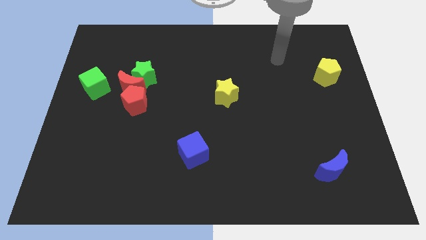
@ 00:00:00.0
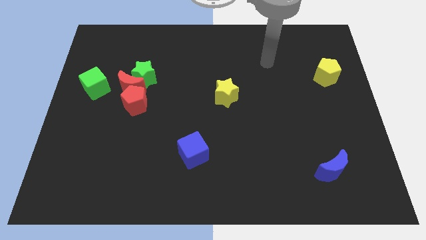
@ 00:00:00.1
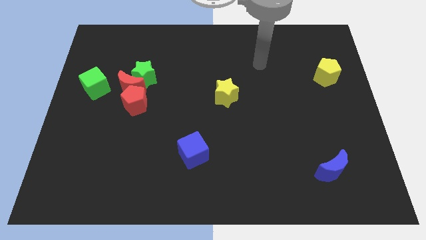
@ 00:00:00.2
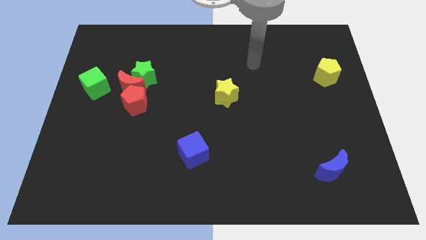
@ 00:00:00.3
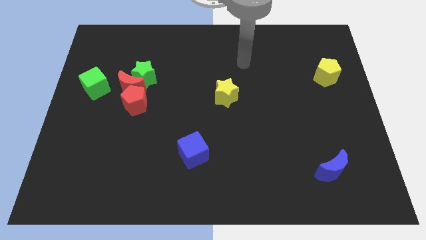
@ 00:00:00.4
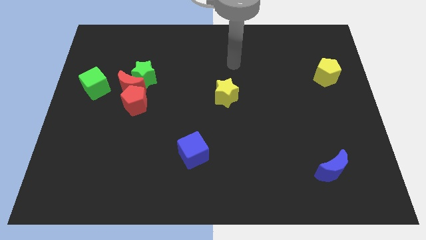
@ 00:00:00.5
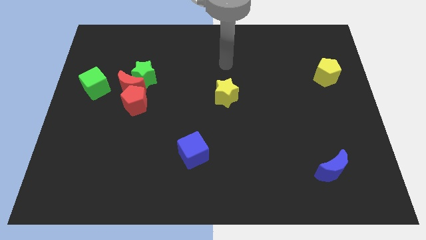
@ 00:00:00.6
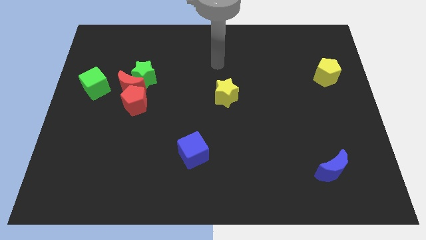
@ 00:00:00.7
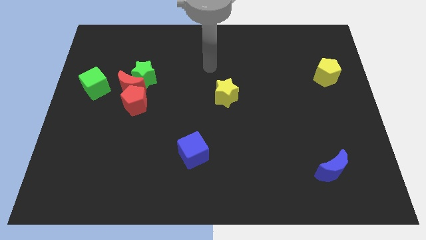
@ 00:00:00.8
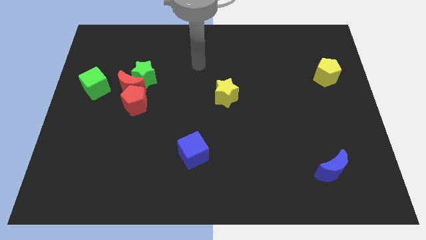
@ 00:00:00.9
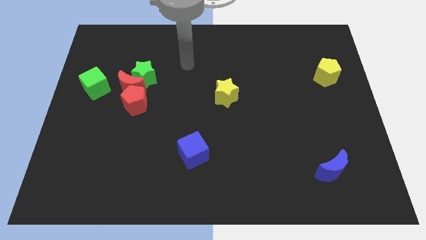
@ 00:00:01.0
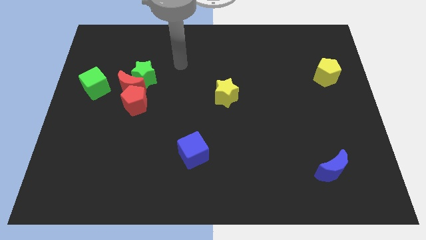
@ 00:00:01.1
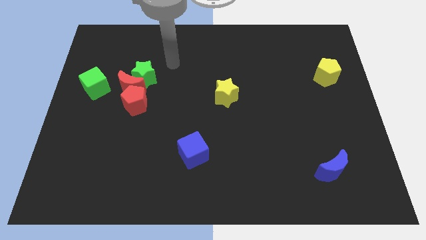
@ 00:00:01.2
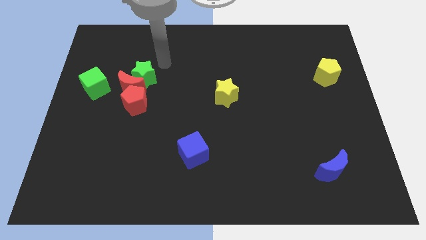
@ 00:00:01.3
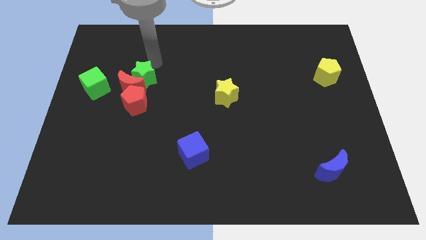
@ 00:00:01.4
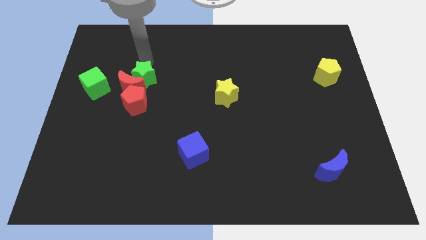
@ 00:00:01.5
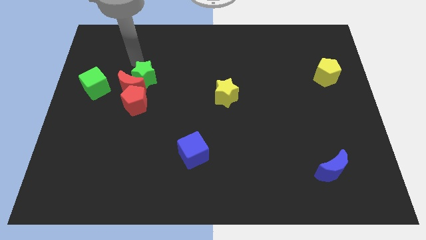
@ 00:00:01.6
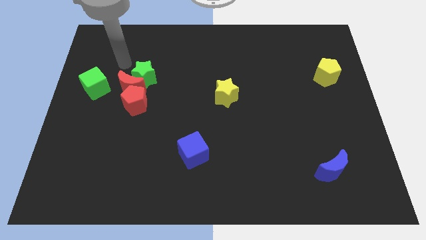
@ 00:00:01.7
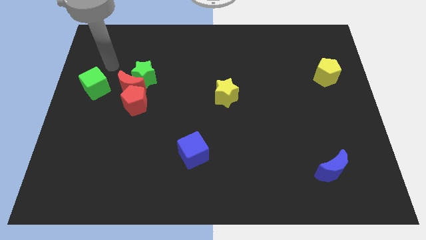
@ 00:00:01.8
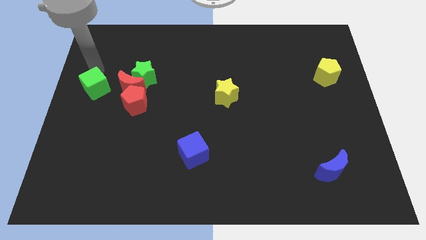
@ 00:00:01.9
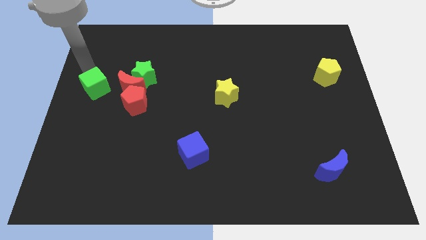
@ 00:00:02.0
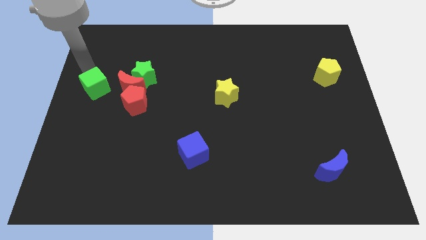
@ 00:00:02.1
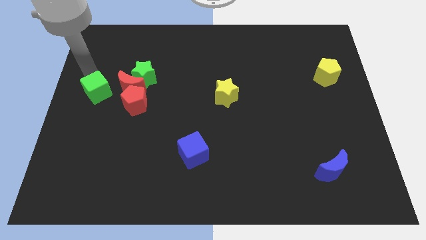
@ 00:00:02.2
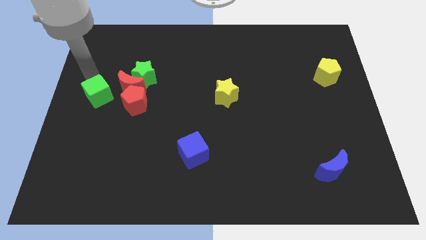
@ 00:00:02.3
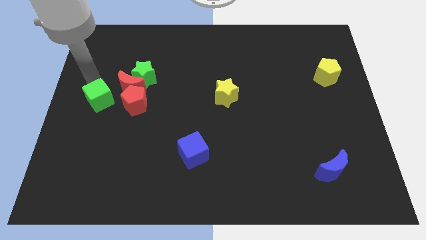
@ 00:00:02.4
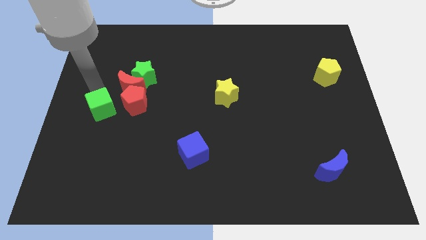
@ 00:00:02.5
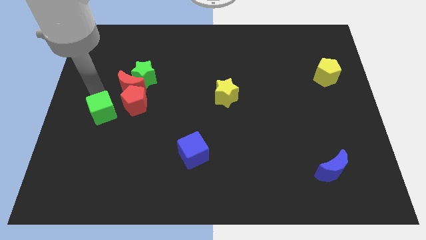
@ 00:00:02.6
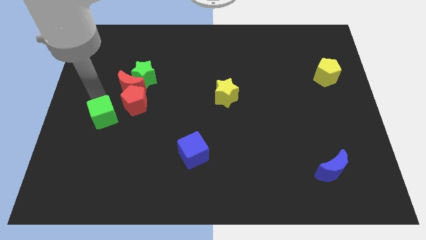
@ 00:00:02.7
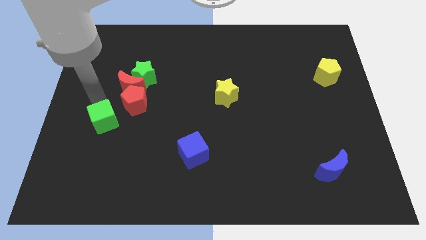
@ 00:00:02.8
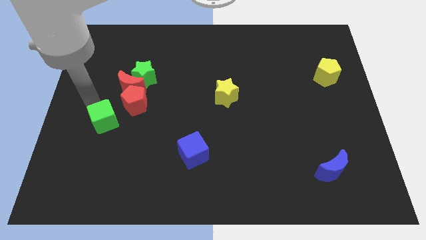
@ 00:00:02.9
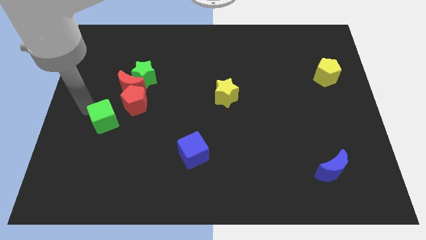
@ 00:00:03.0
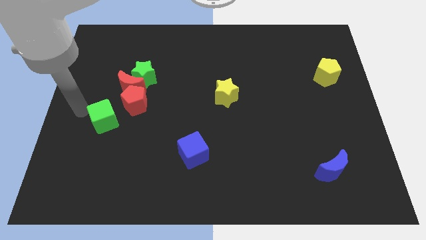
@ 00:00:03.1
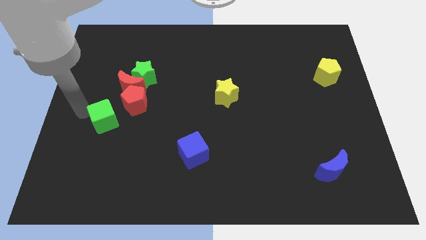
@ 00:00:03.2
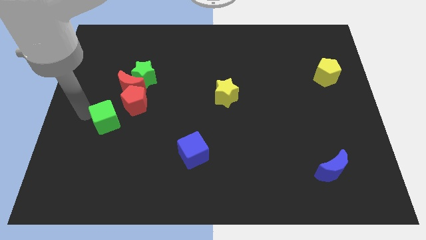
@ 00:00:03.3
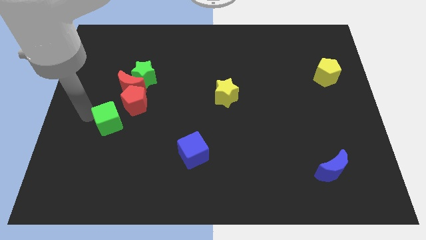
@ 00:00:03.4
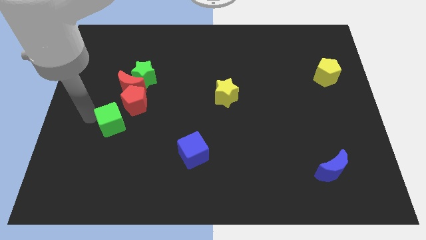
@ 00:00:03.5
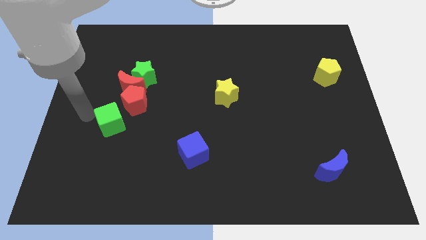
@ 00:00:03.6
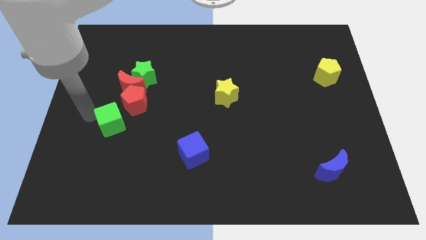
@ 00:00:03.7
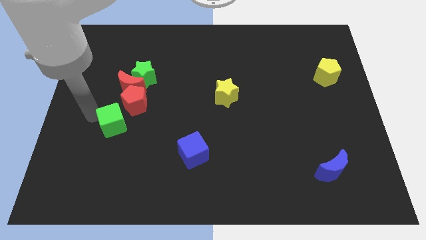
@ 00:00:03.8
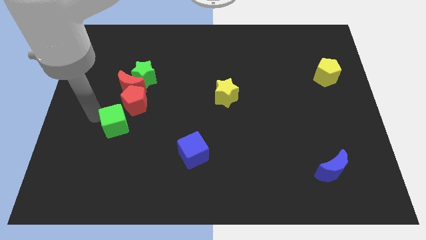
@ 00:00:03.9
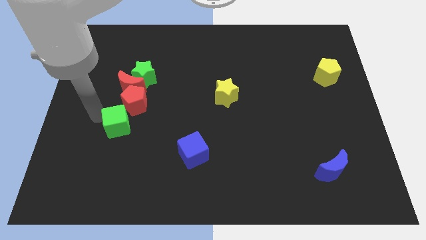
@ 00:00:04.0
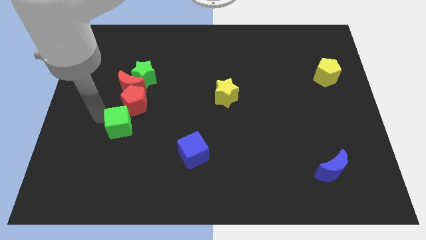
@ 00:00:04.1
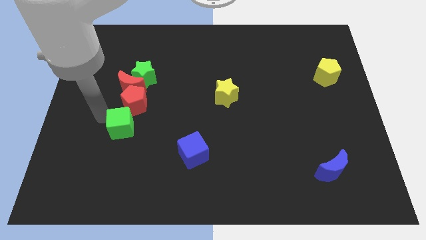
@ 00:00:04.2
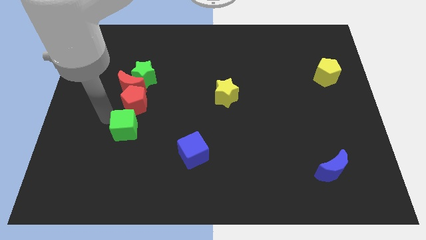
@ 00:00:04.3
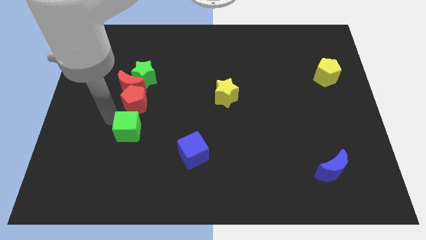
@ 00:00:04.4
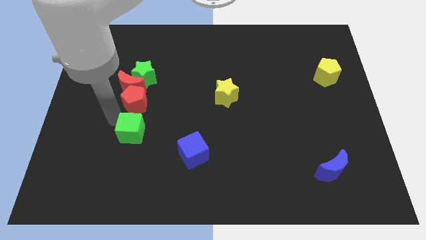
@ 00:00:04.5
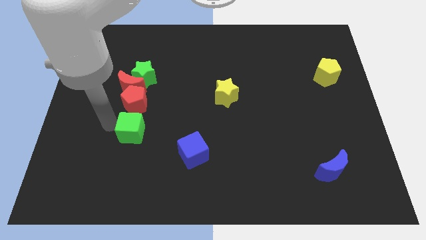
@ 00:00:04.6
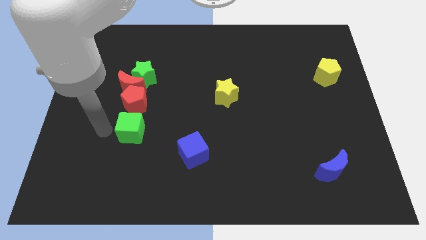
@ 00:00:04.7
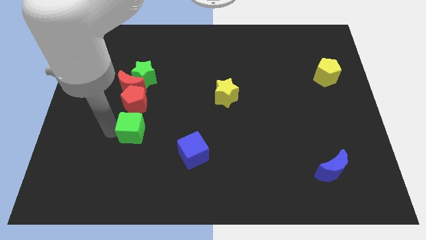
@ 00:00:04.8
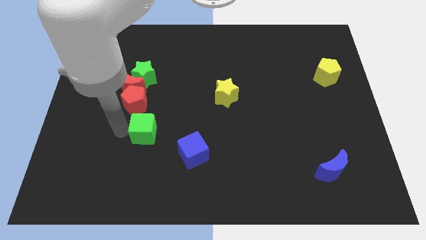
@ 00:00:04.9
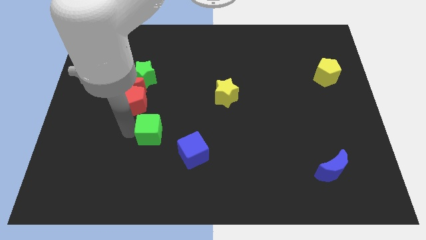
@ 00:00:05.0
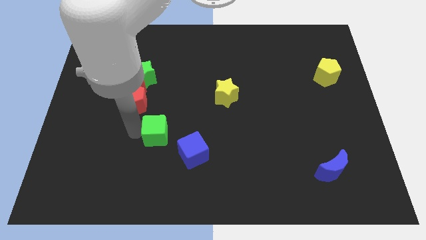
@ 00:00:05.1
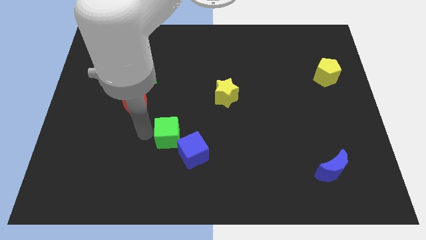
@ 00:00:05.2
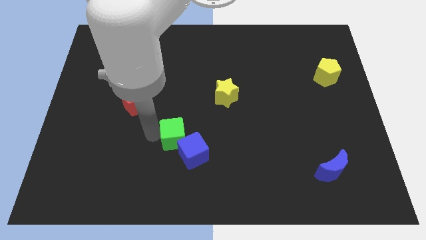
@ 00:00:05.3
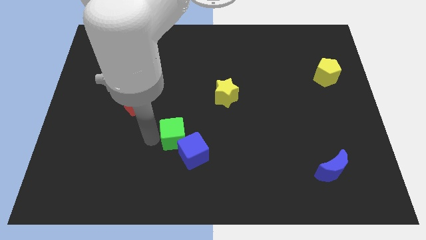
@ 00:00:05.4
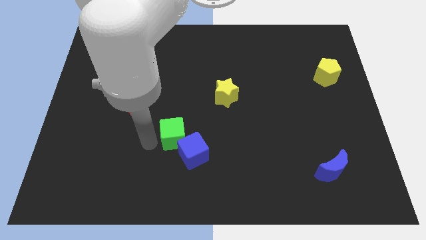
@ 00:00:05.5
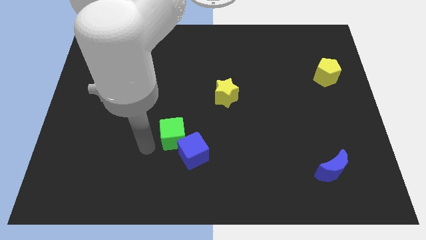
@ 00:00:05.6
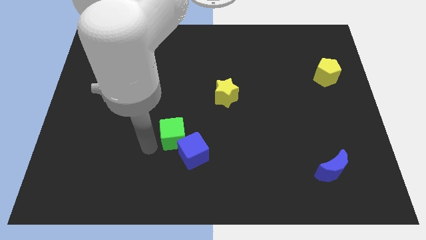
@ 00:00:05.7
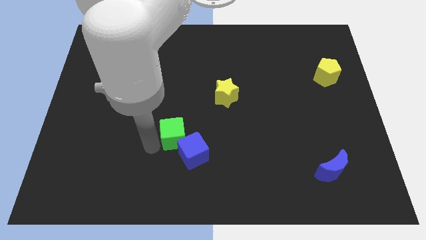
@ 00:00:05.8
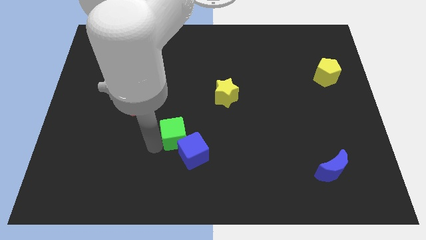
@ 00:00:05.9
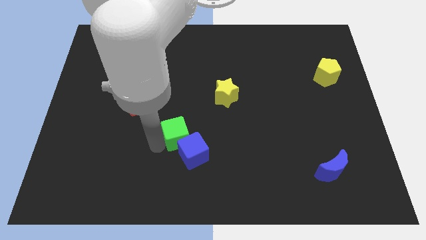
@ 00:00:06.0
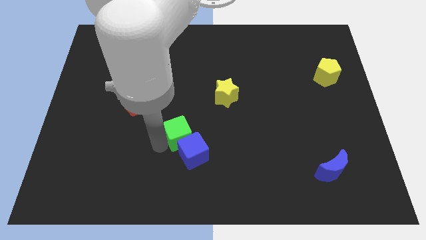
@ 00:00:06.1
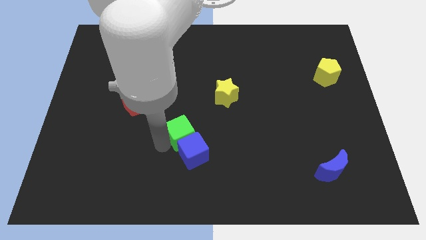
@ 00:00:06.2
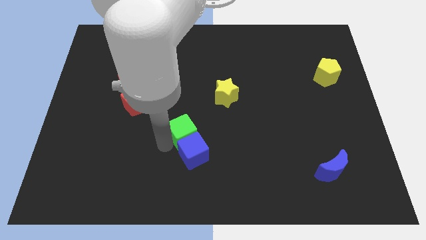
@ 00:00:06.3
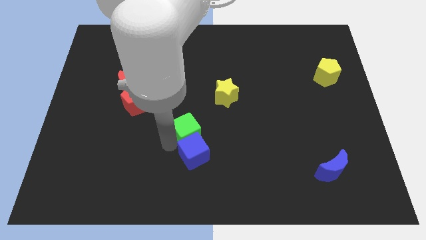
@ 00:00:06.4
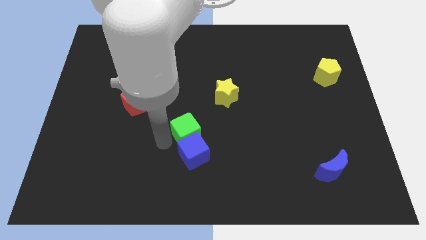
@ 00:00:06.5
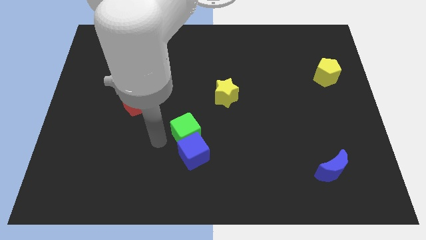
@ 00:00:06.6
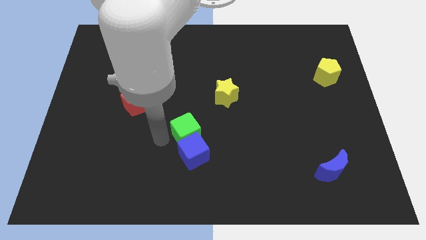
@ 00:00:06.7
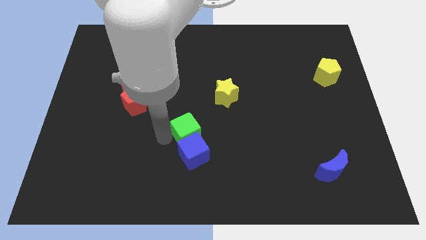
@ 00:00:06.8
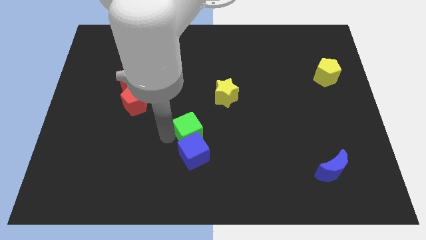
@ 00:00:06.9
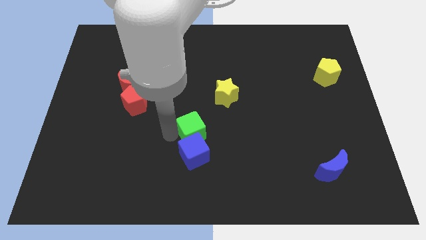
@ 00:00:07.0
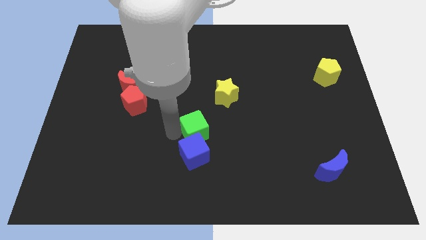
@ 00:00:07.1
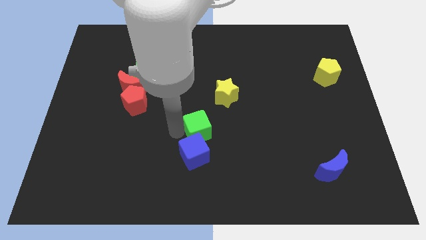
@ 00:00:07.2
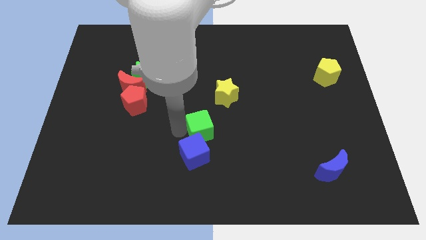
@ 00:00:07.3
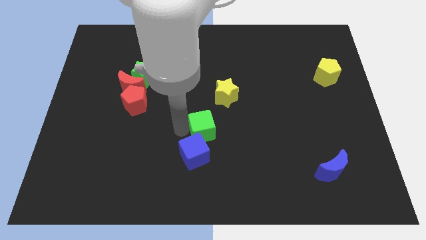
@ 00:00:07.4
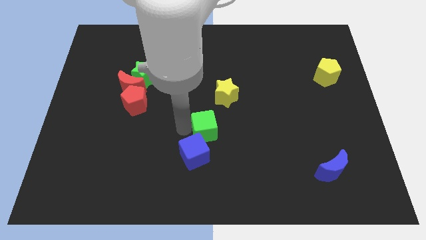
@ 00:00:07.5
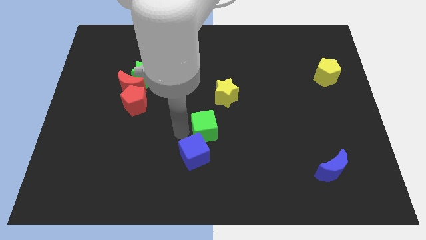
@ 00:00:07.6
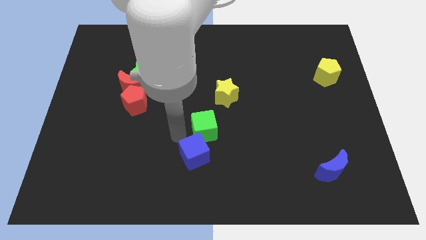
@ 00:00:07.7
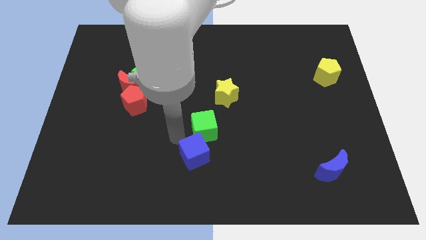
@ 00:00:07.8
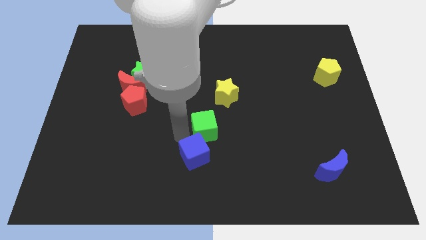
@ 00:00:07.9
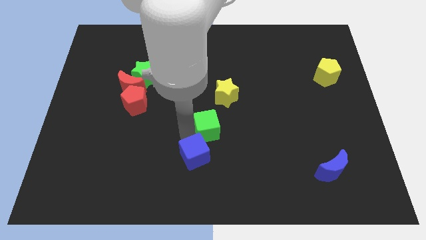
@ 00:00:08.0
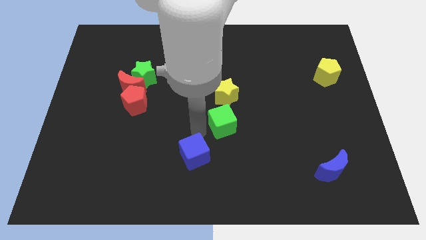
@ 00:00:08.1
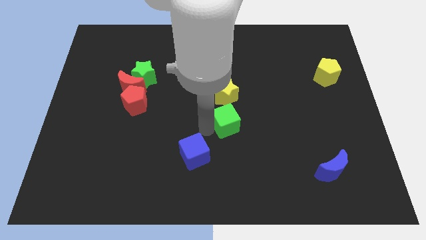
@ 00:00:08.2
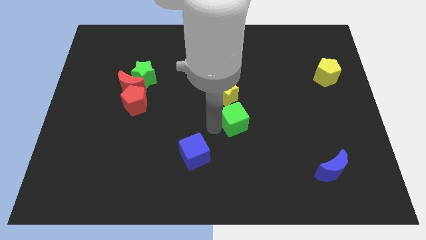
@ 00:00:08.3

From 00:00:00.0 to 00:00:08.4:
put the green cube to the bottom right of the yellow star
